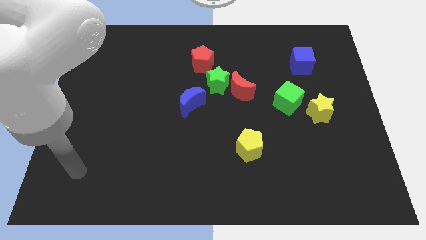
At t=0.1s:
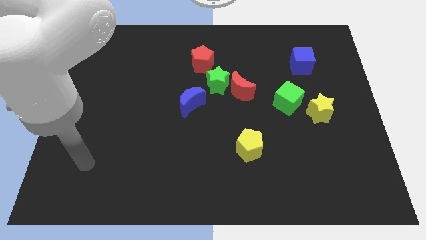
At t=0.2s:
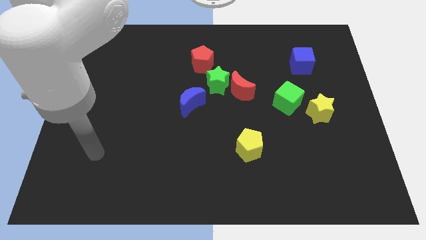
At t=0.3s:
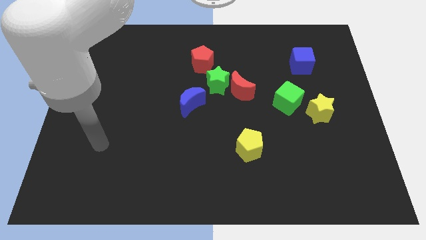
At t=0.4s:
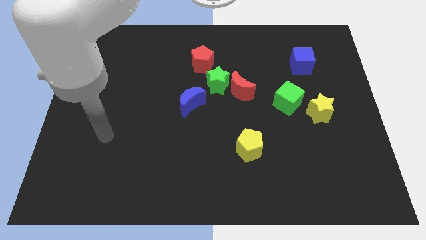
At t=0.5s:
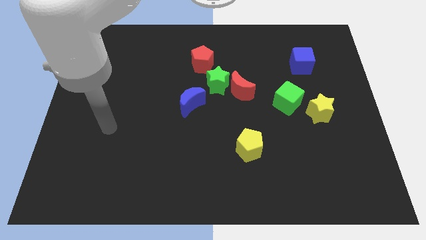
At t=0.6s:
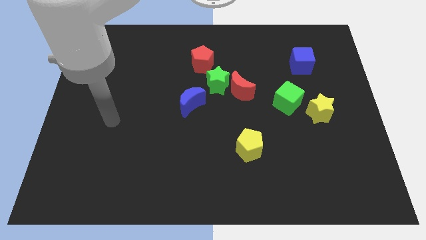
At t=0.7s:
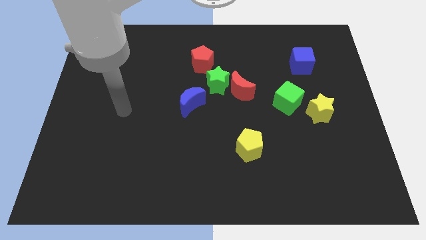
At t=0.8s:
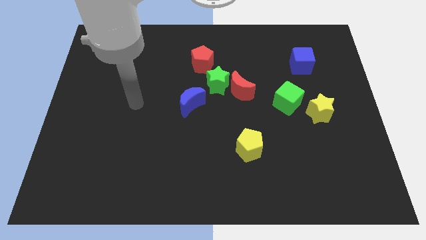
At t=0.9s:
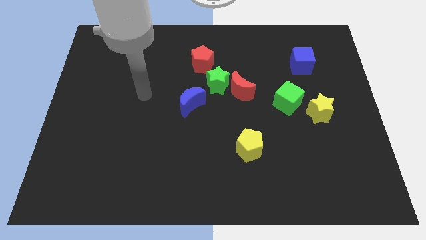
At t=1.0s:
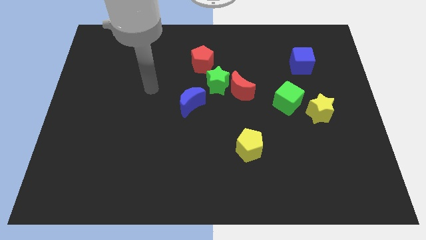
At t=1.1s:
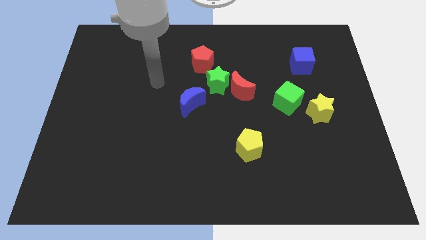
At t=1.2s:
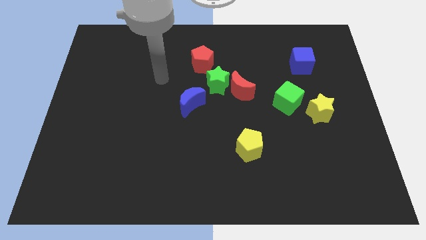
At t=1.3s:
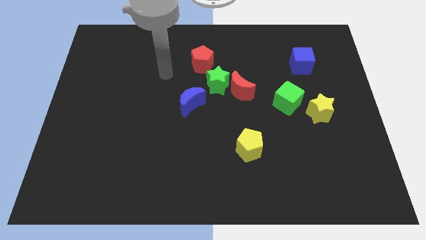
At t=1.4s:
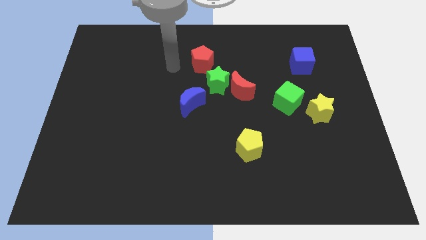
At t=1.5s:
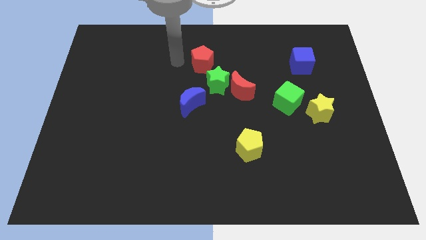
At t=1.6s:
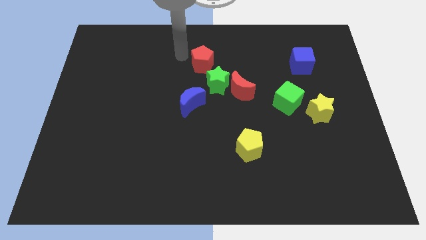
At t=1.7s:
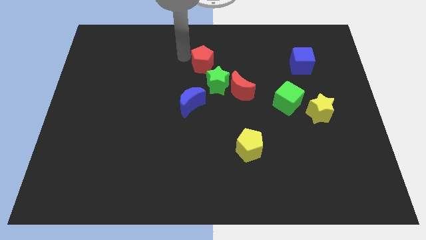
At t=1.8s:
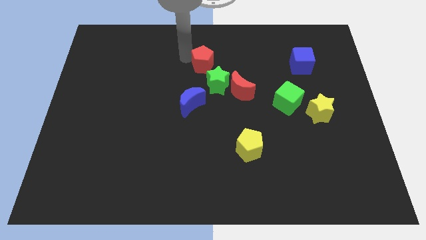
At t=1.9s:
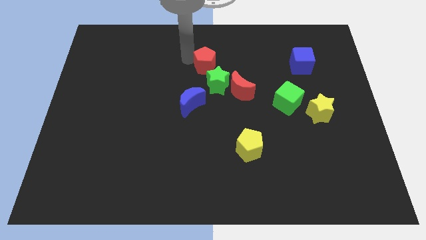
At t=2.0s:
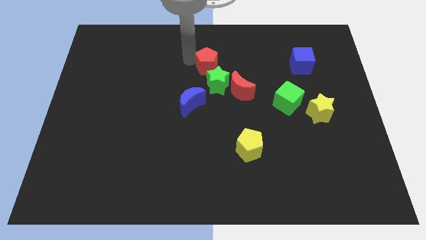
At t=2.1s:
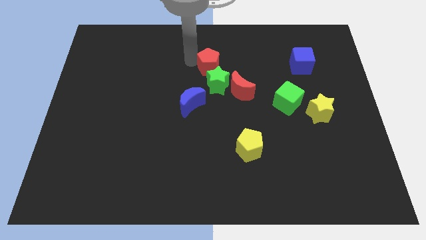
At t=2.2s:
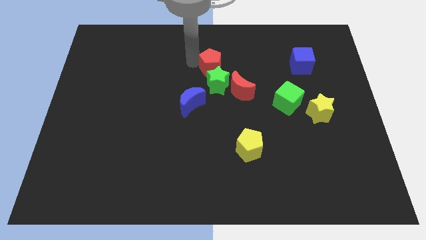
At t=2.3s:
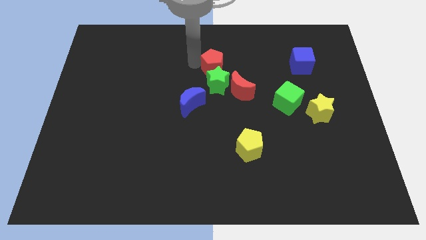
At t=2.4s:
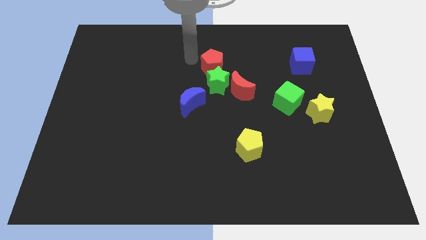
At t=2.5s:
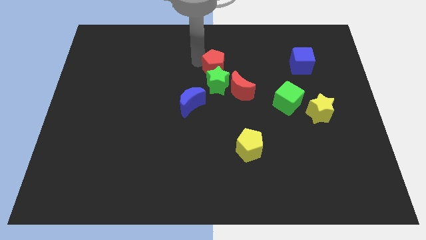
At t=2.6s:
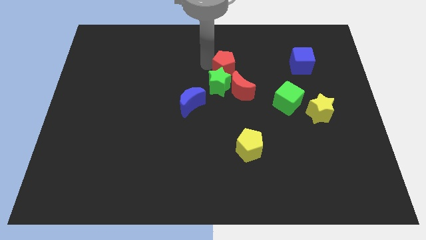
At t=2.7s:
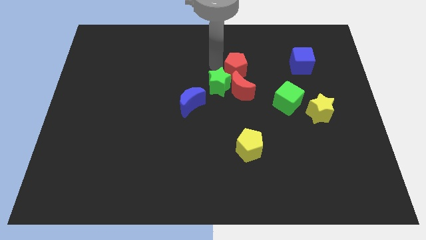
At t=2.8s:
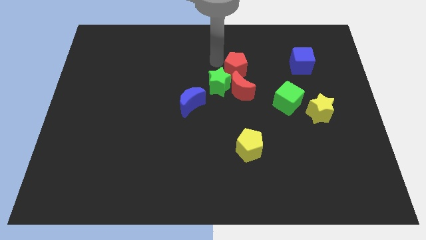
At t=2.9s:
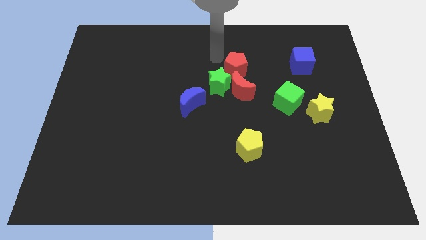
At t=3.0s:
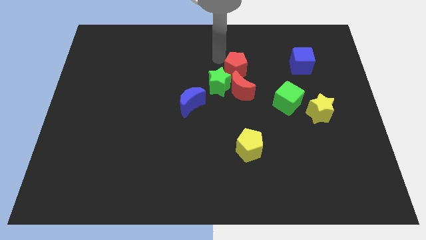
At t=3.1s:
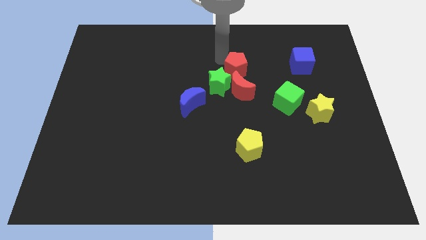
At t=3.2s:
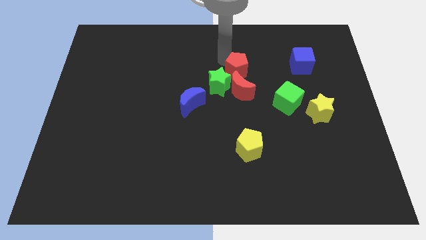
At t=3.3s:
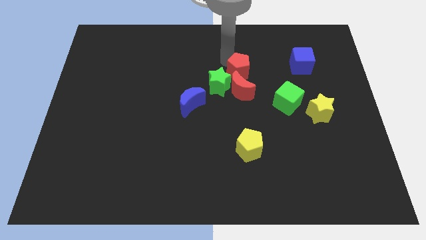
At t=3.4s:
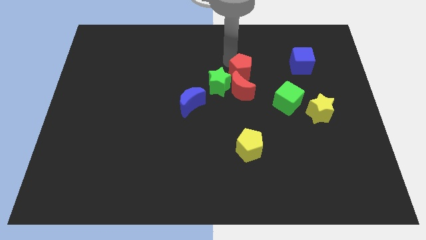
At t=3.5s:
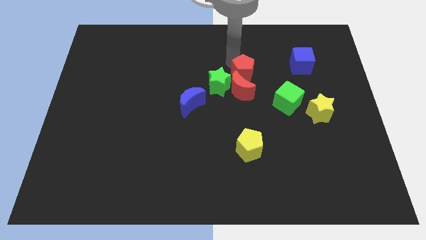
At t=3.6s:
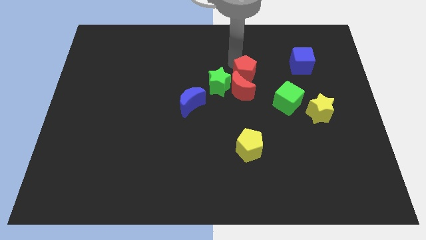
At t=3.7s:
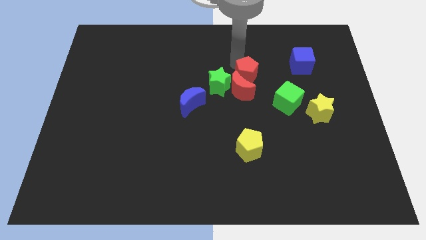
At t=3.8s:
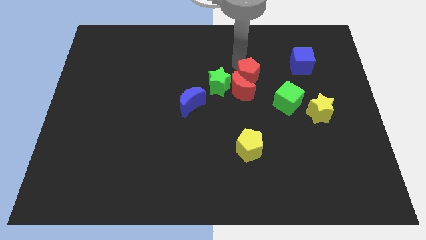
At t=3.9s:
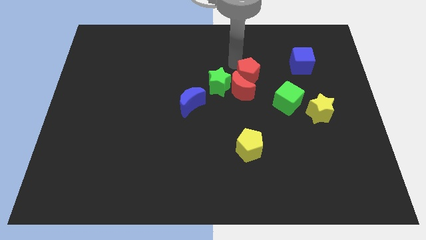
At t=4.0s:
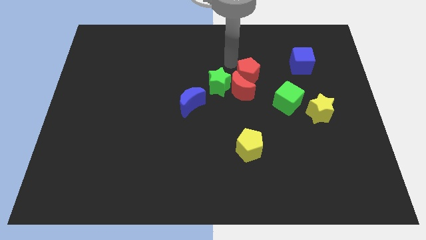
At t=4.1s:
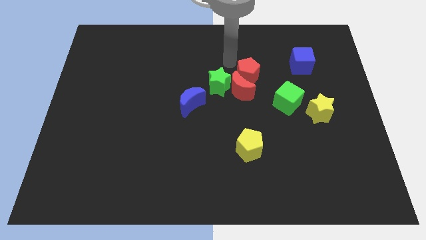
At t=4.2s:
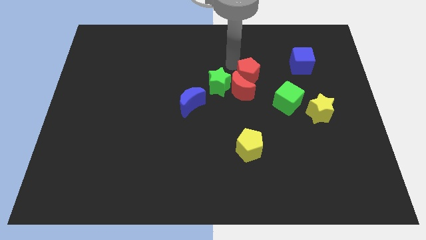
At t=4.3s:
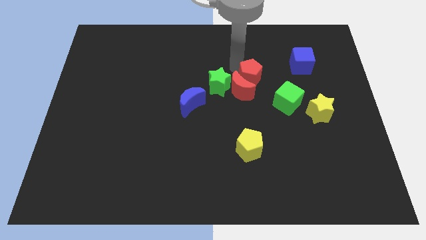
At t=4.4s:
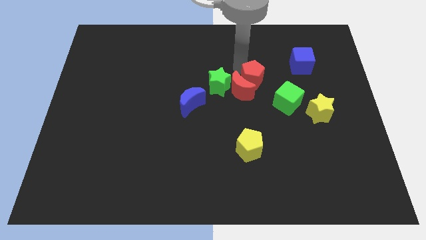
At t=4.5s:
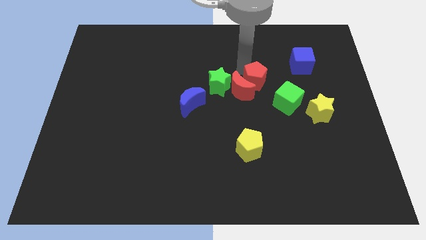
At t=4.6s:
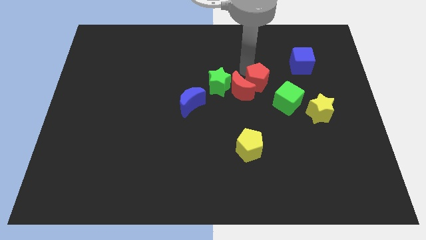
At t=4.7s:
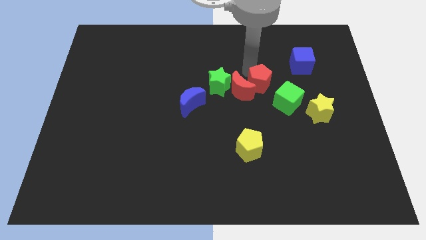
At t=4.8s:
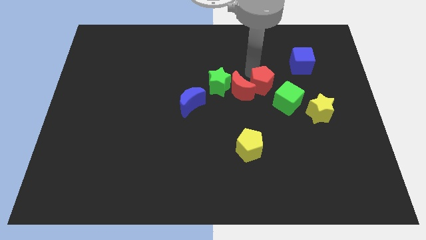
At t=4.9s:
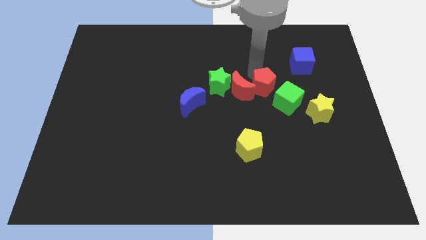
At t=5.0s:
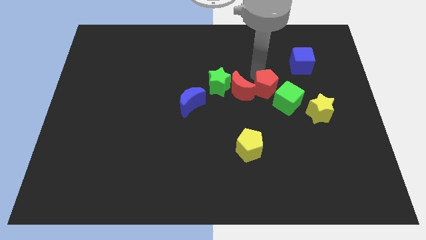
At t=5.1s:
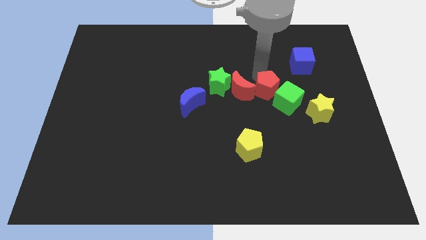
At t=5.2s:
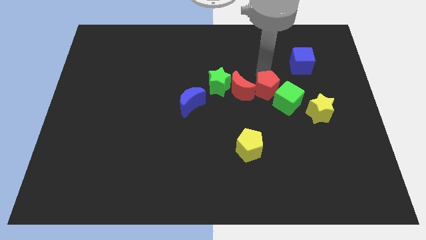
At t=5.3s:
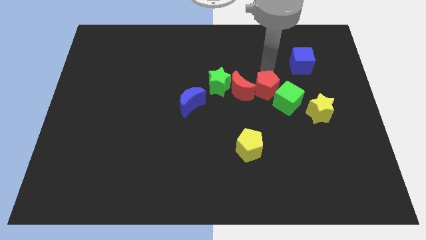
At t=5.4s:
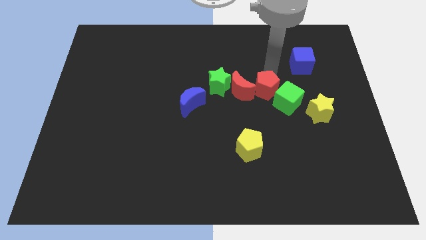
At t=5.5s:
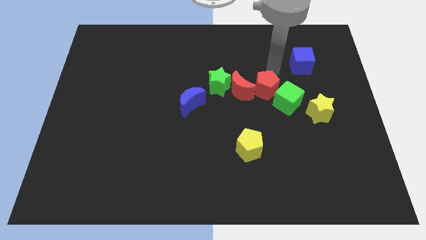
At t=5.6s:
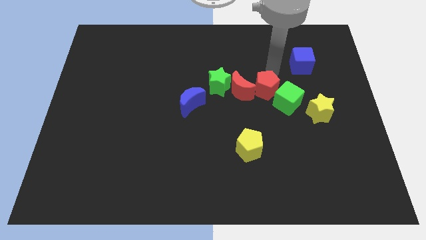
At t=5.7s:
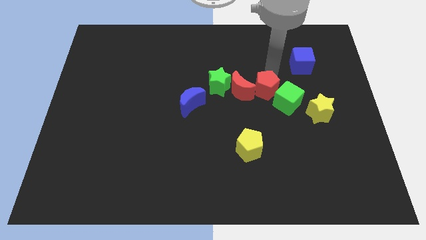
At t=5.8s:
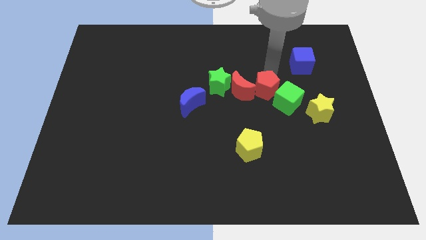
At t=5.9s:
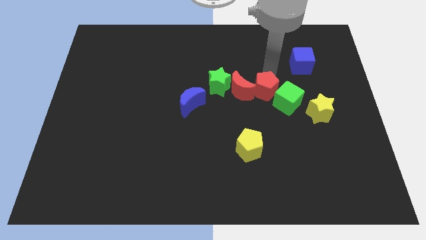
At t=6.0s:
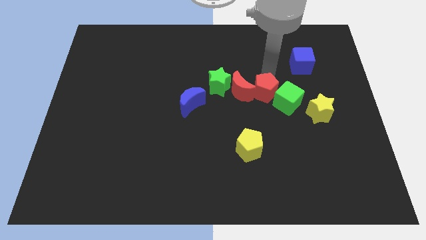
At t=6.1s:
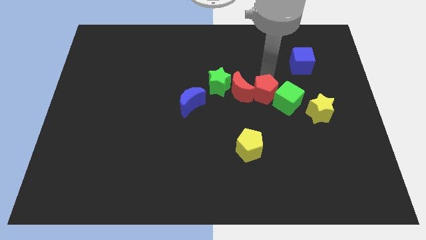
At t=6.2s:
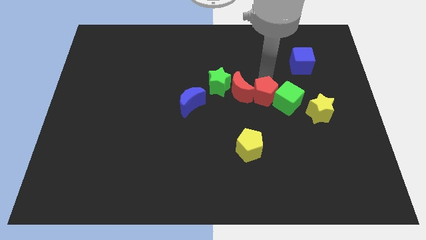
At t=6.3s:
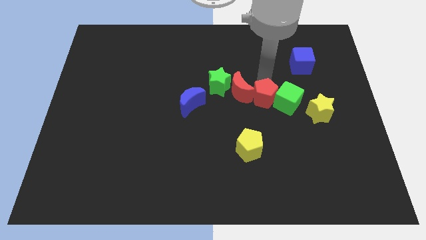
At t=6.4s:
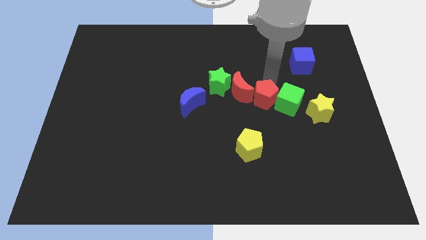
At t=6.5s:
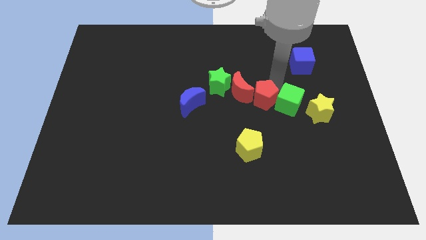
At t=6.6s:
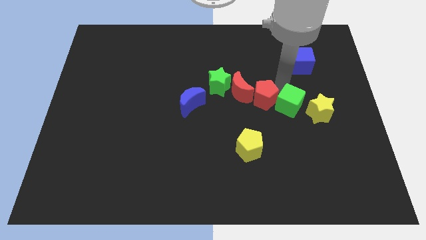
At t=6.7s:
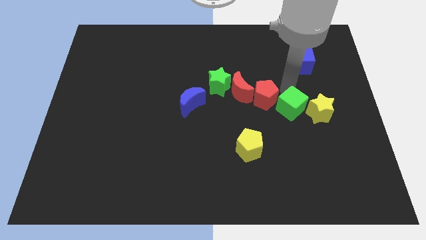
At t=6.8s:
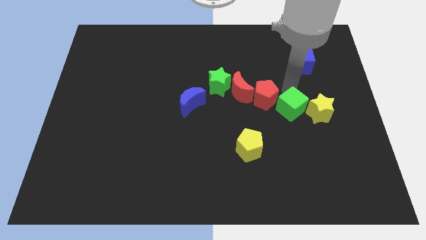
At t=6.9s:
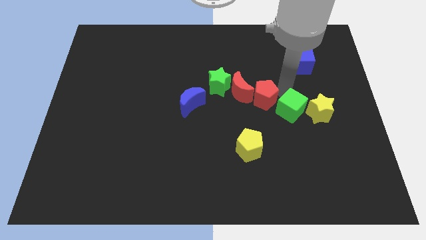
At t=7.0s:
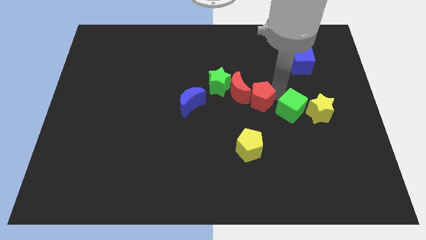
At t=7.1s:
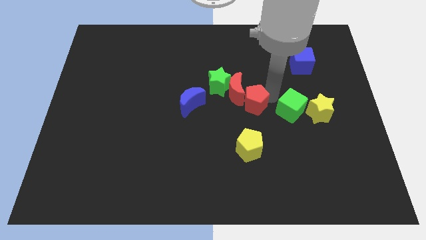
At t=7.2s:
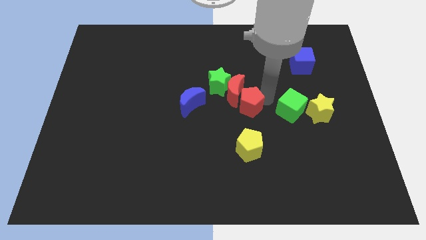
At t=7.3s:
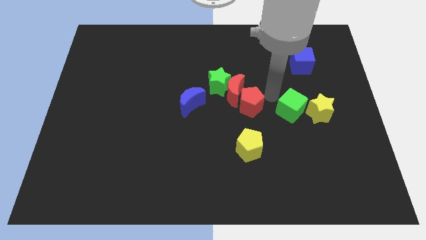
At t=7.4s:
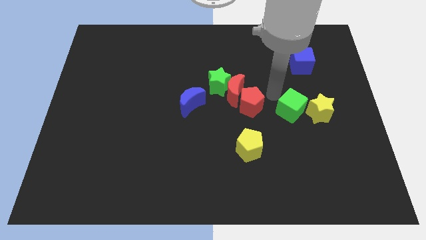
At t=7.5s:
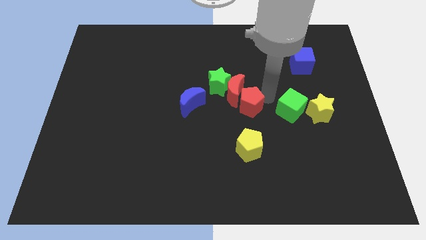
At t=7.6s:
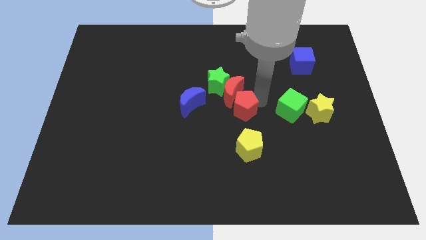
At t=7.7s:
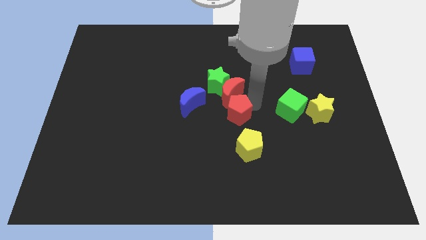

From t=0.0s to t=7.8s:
move the red pentagon below the green star
